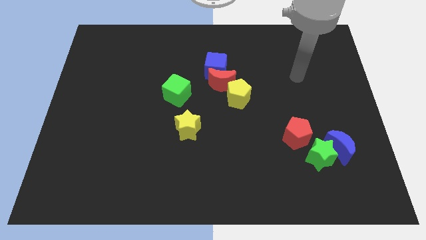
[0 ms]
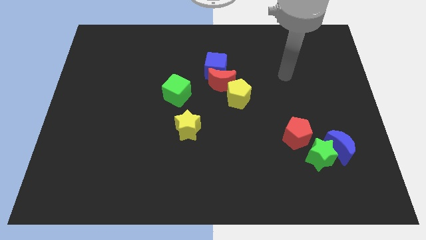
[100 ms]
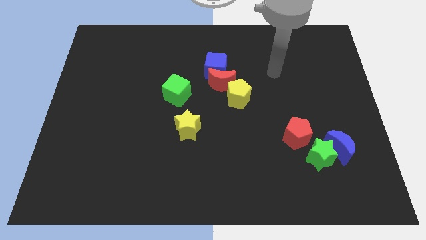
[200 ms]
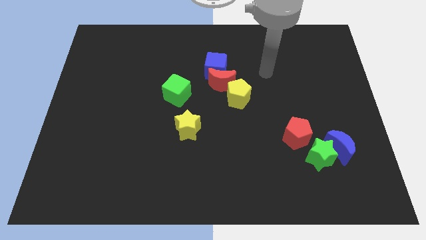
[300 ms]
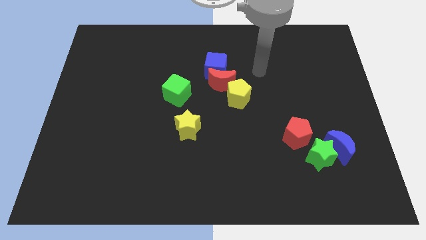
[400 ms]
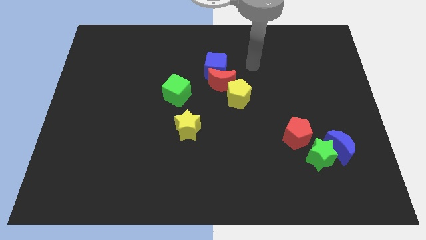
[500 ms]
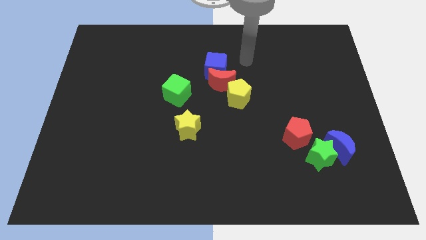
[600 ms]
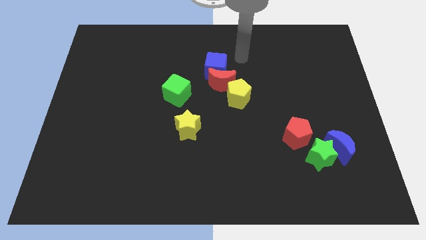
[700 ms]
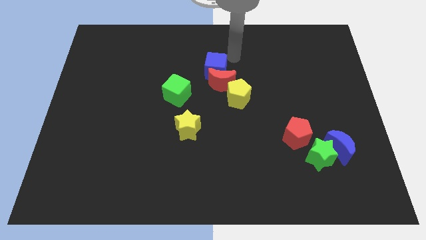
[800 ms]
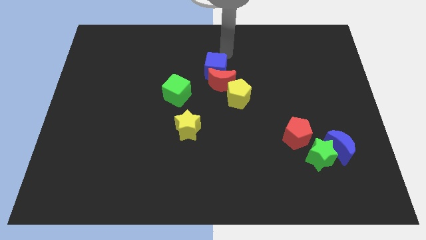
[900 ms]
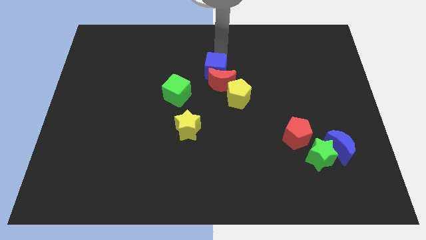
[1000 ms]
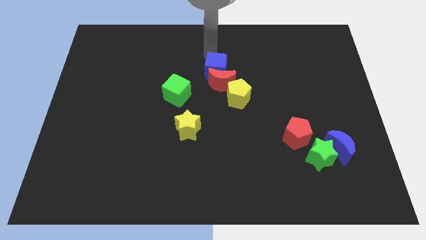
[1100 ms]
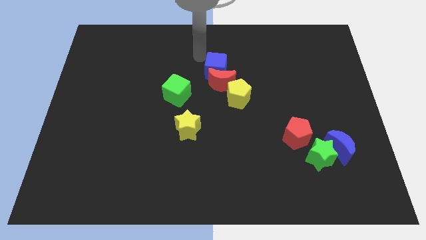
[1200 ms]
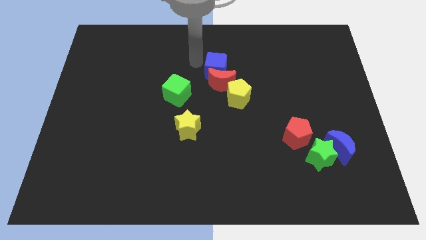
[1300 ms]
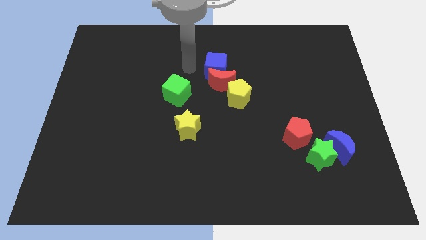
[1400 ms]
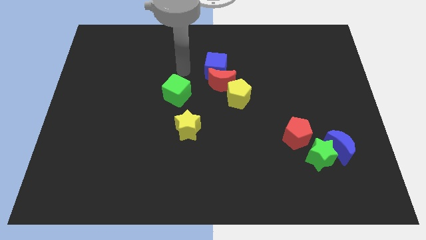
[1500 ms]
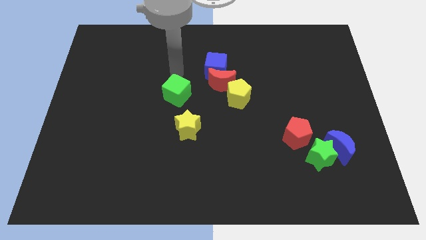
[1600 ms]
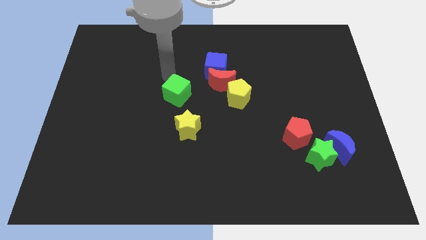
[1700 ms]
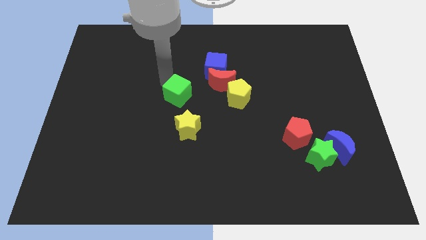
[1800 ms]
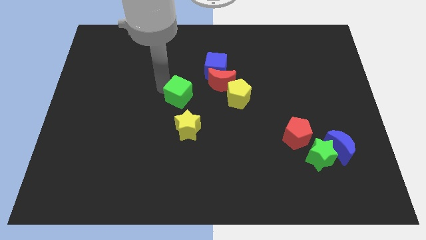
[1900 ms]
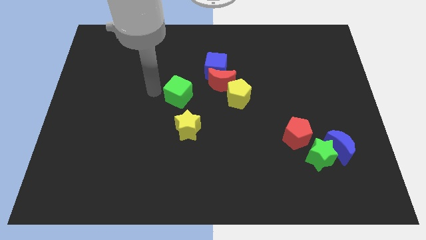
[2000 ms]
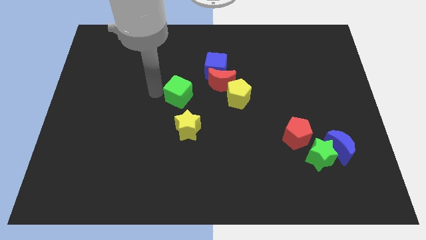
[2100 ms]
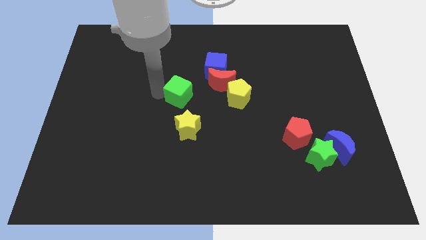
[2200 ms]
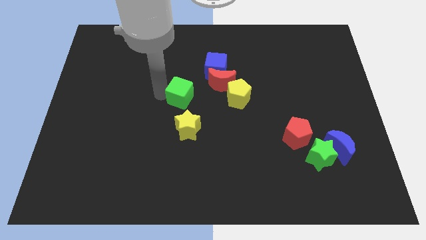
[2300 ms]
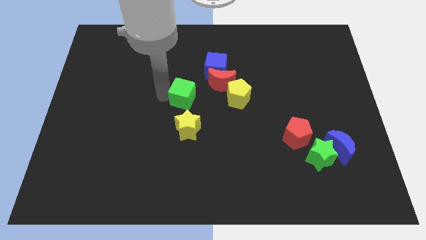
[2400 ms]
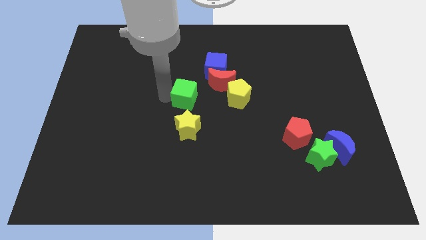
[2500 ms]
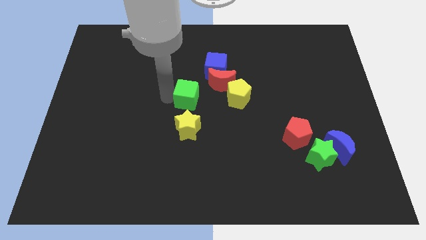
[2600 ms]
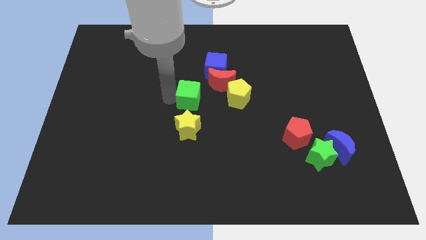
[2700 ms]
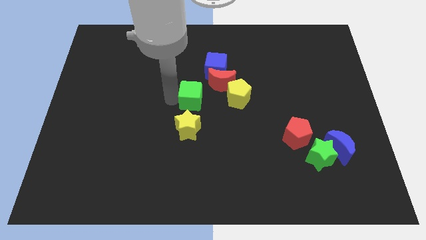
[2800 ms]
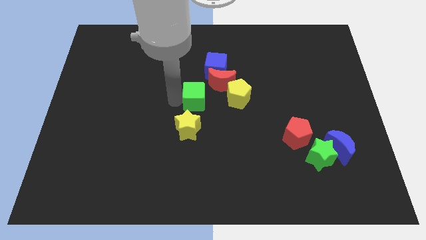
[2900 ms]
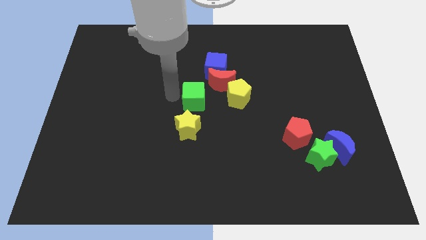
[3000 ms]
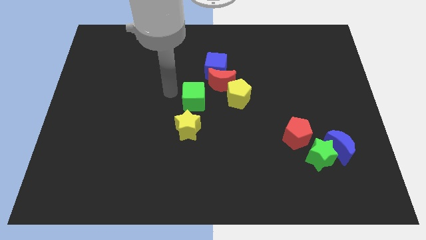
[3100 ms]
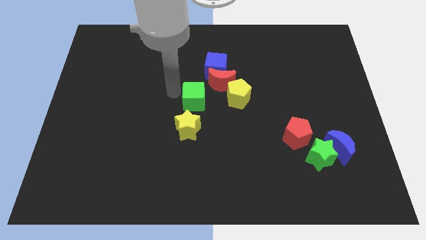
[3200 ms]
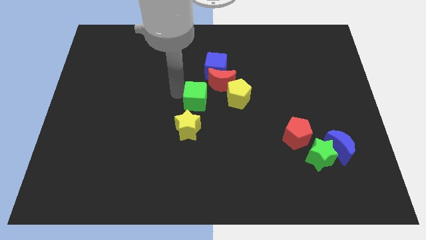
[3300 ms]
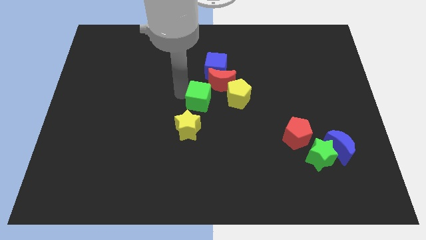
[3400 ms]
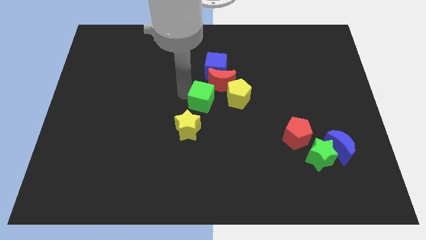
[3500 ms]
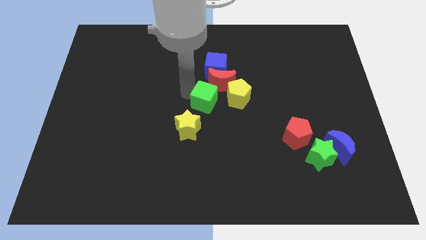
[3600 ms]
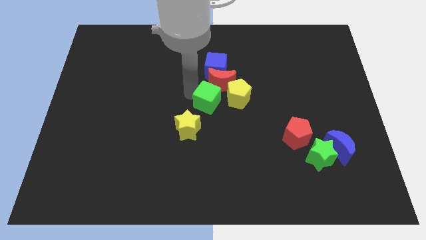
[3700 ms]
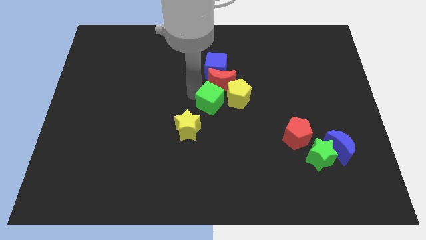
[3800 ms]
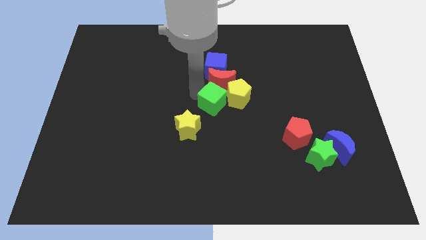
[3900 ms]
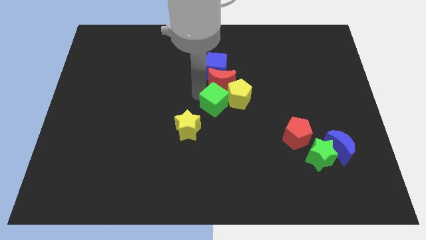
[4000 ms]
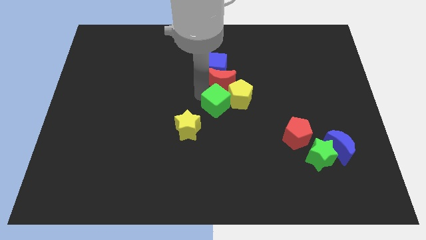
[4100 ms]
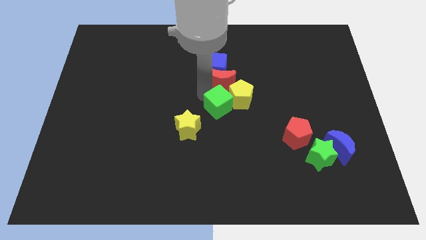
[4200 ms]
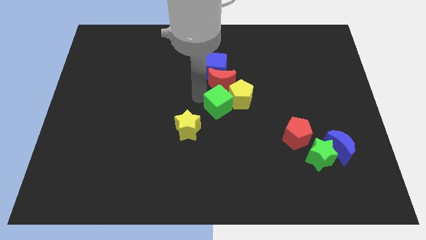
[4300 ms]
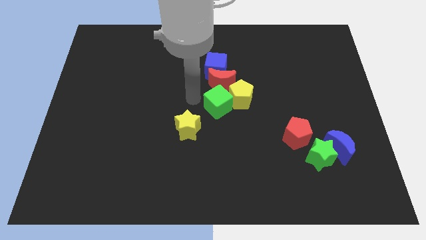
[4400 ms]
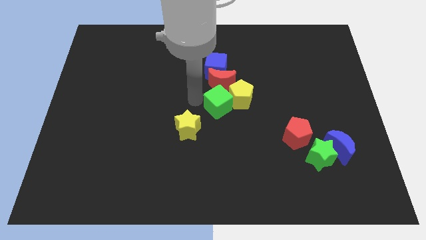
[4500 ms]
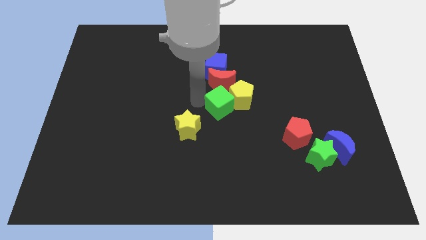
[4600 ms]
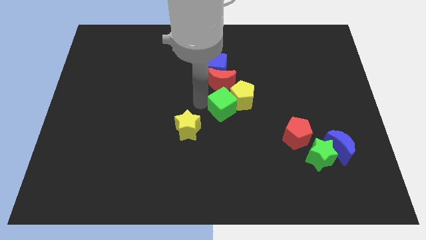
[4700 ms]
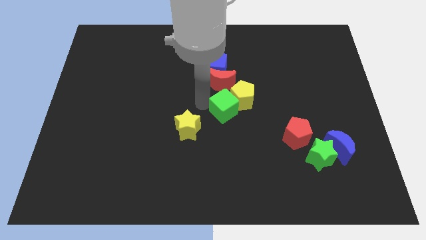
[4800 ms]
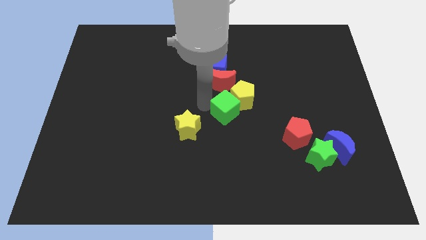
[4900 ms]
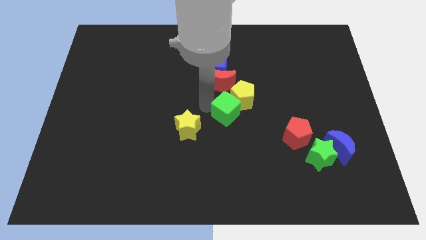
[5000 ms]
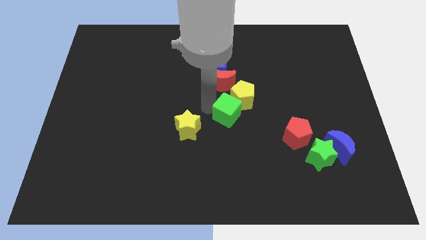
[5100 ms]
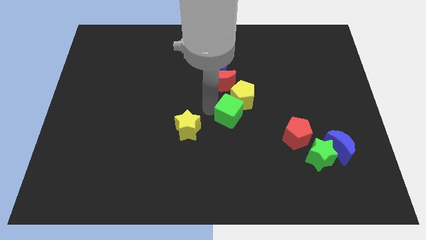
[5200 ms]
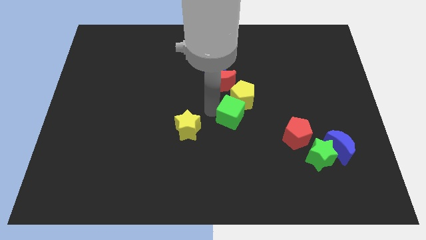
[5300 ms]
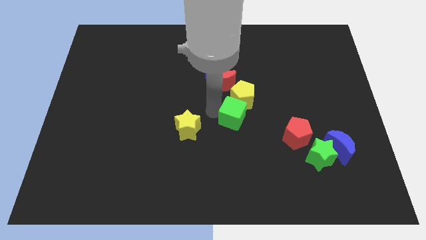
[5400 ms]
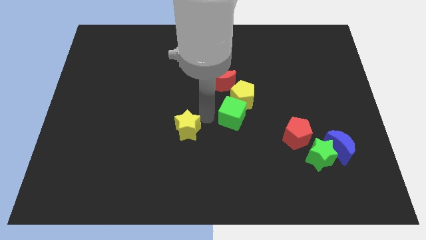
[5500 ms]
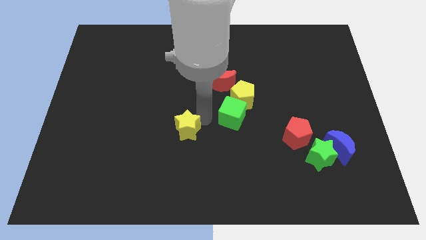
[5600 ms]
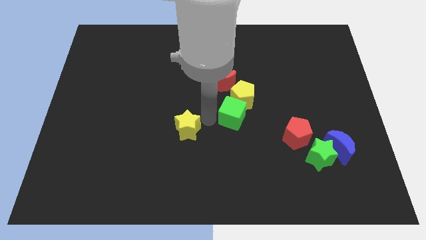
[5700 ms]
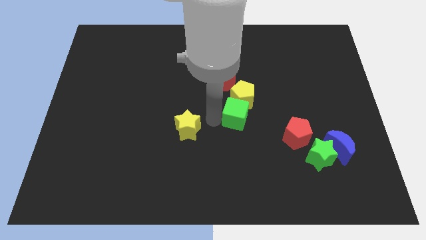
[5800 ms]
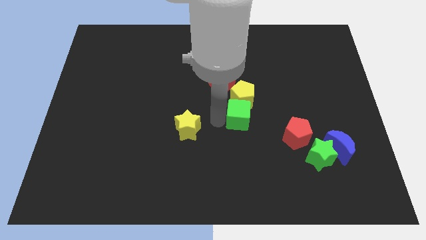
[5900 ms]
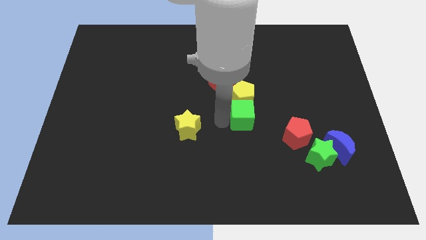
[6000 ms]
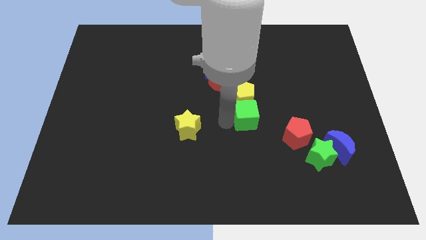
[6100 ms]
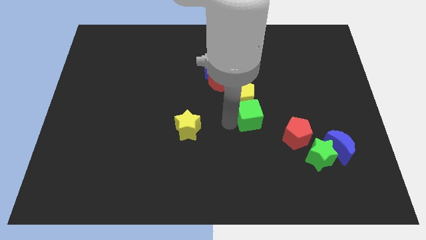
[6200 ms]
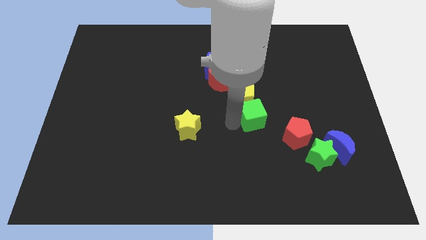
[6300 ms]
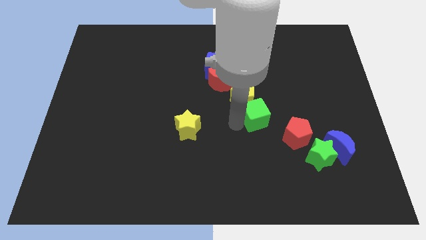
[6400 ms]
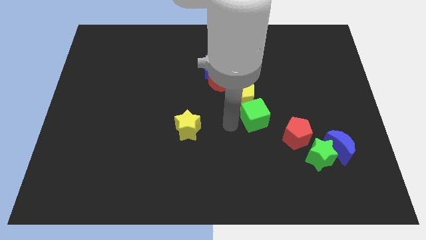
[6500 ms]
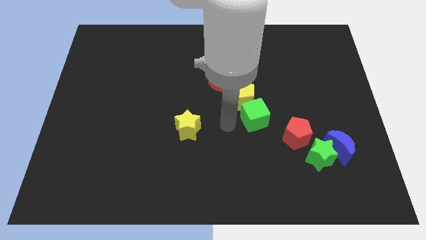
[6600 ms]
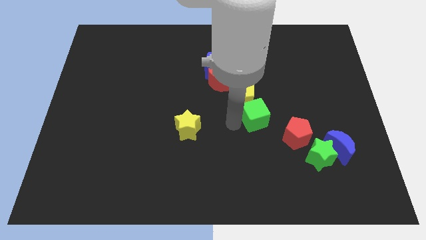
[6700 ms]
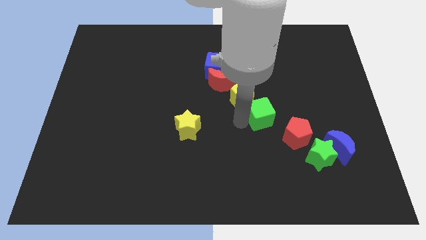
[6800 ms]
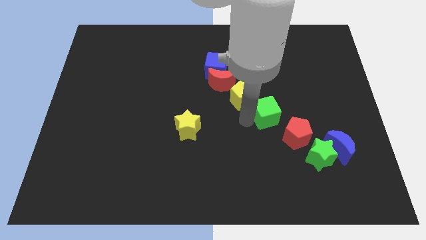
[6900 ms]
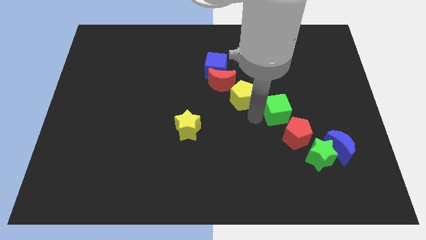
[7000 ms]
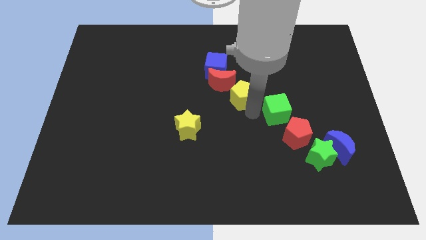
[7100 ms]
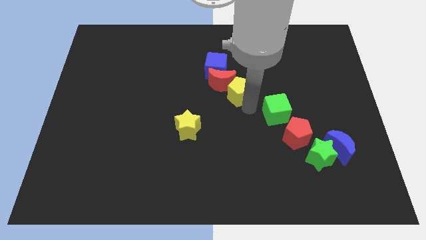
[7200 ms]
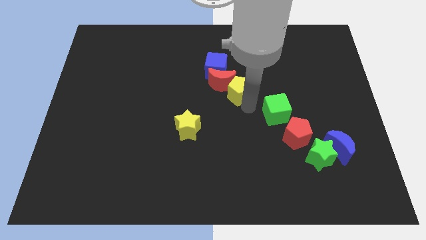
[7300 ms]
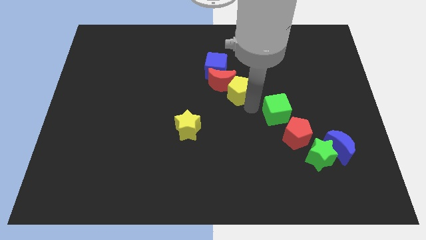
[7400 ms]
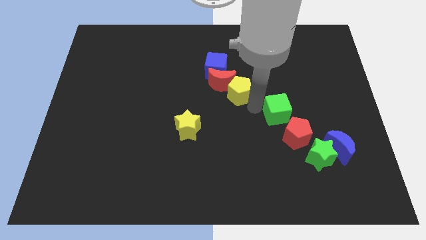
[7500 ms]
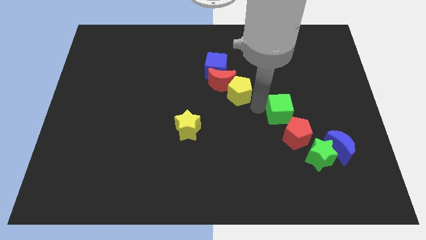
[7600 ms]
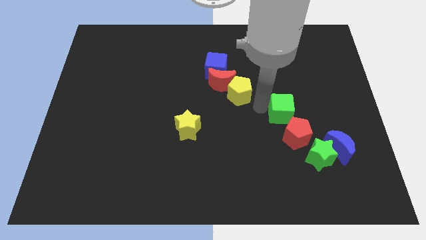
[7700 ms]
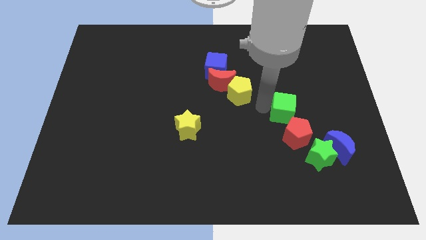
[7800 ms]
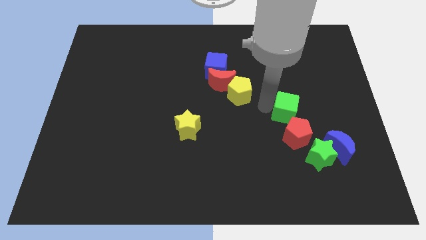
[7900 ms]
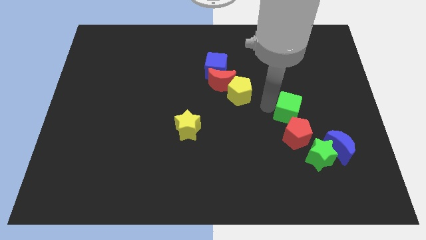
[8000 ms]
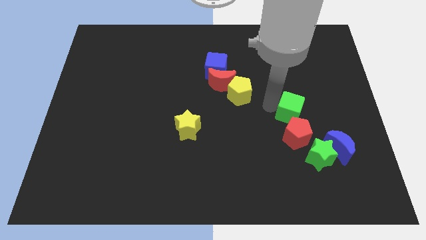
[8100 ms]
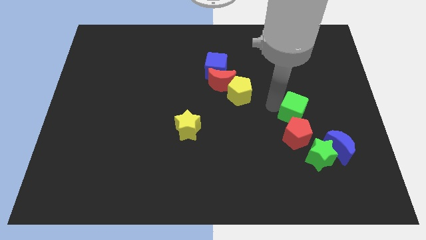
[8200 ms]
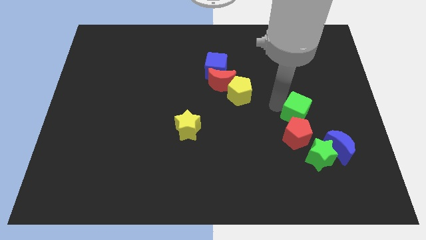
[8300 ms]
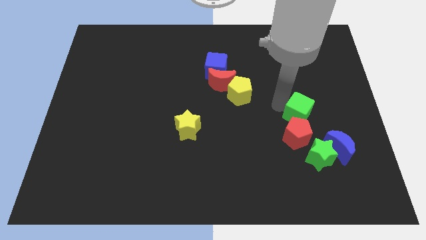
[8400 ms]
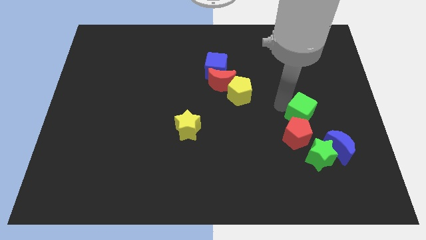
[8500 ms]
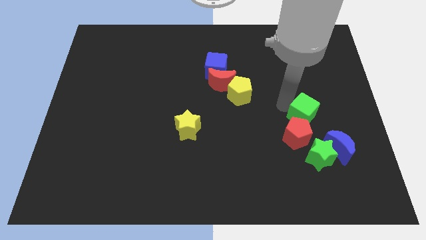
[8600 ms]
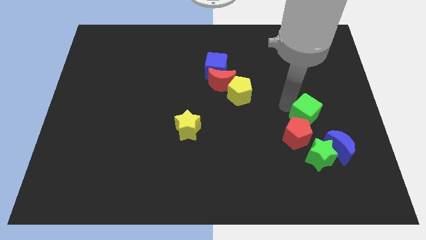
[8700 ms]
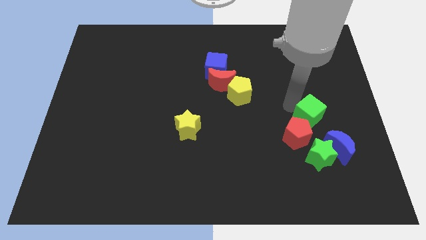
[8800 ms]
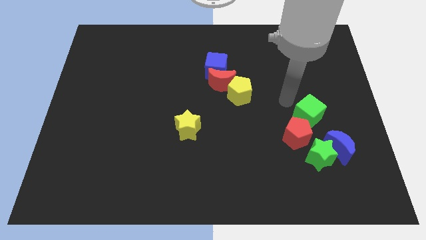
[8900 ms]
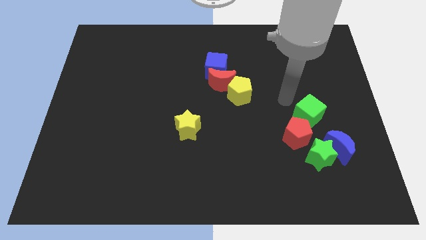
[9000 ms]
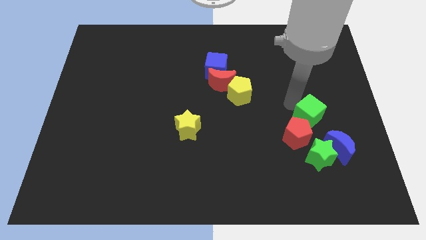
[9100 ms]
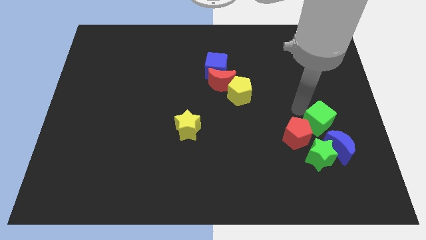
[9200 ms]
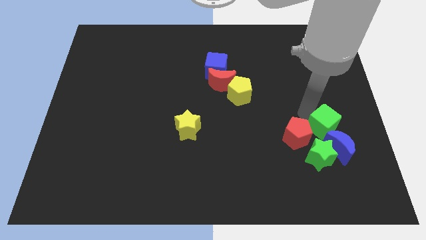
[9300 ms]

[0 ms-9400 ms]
move the green cube to the top right side of the green star
